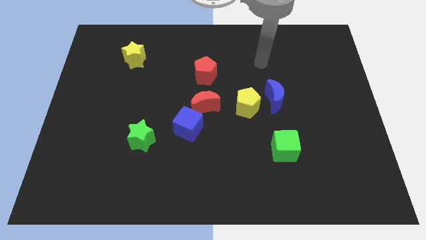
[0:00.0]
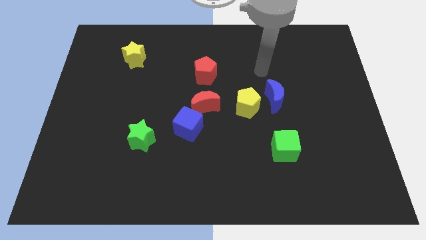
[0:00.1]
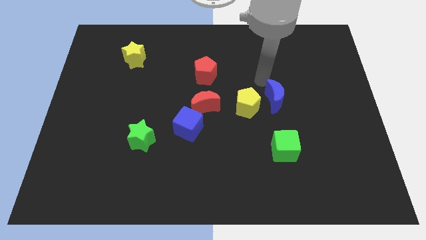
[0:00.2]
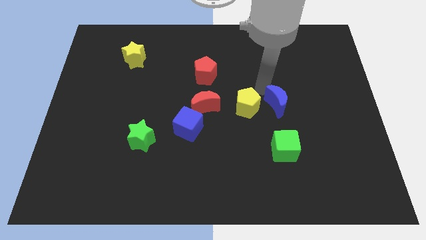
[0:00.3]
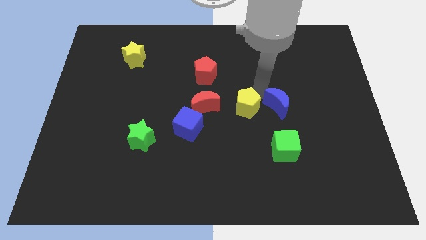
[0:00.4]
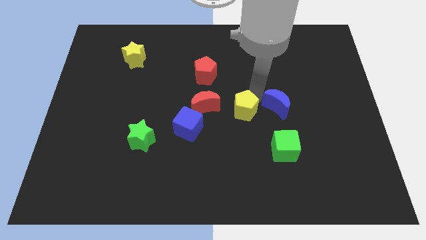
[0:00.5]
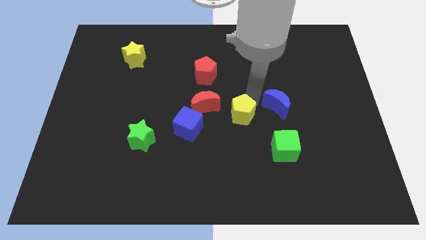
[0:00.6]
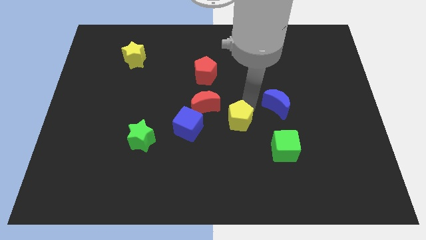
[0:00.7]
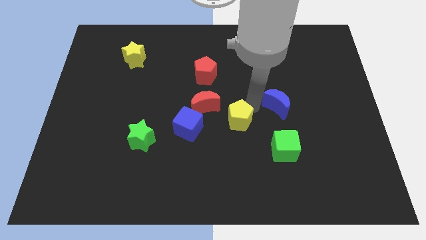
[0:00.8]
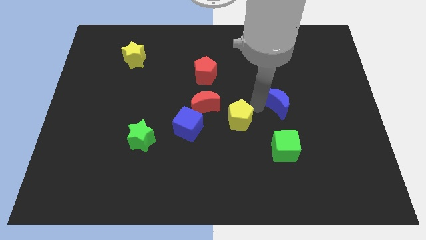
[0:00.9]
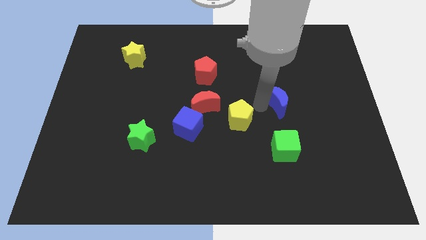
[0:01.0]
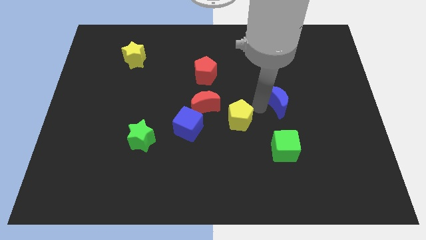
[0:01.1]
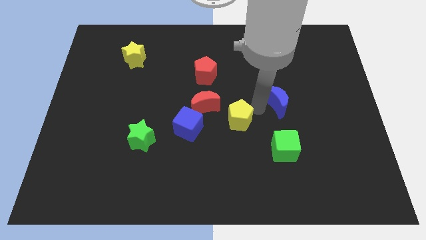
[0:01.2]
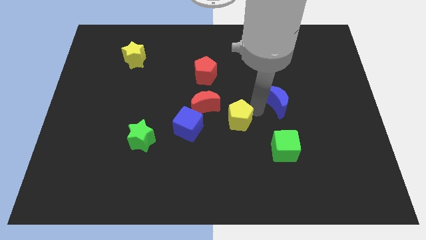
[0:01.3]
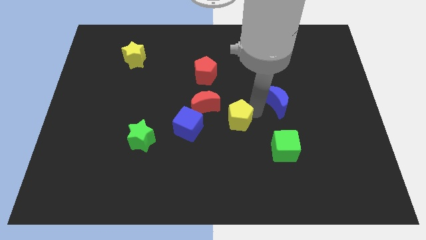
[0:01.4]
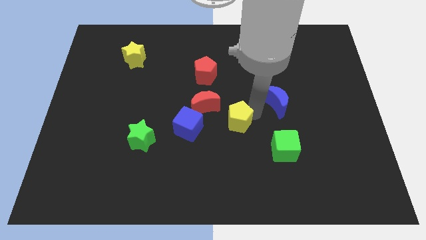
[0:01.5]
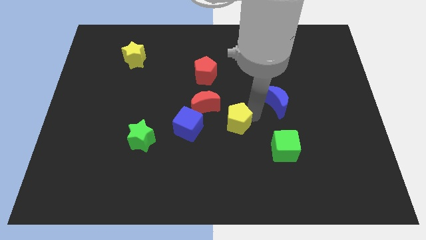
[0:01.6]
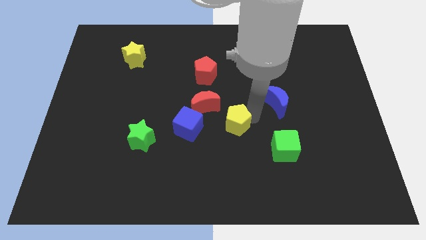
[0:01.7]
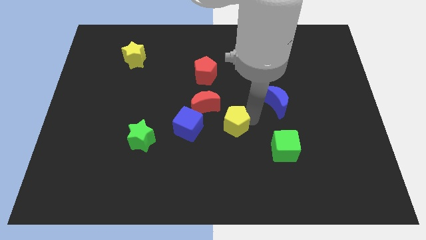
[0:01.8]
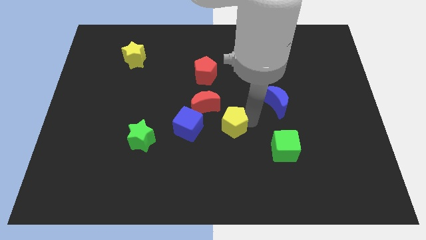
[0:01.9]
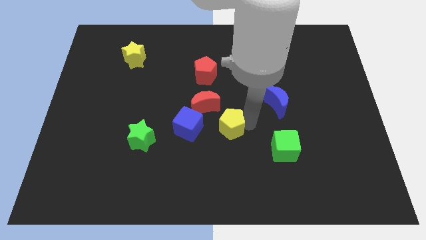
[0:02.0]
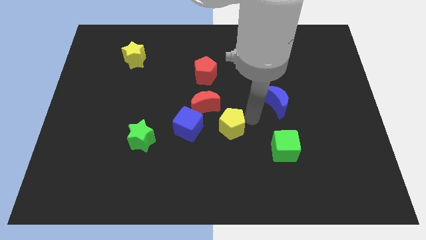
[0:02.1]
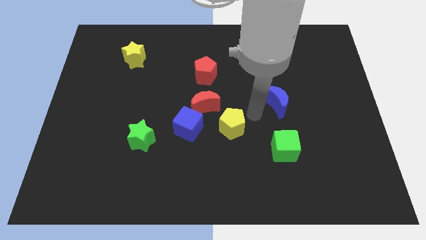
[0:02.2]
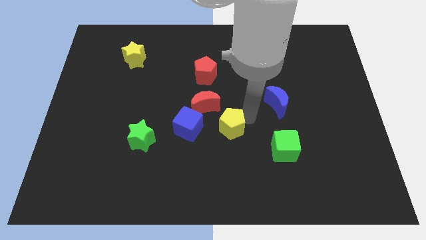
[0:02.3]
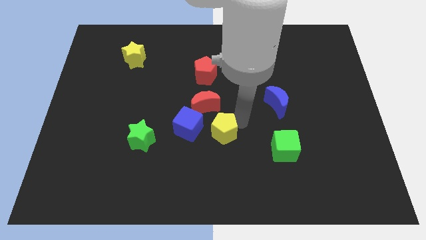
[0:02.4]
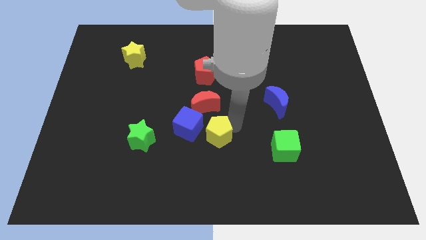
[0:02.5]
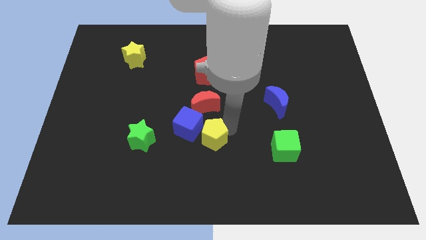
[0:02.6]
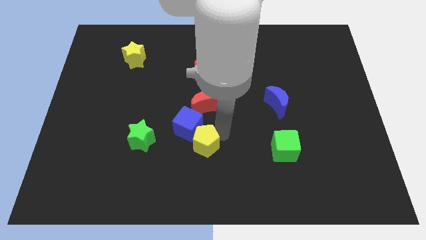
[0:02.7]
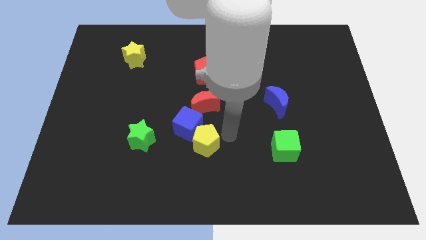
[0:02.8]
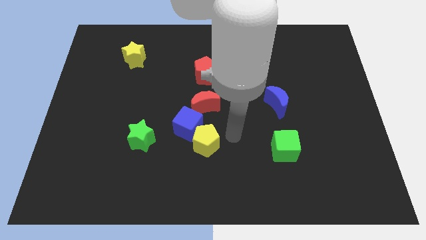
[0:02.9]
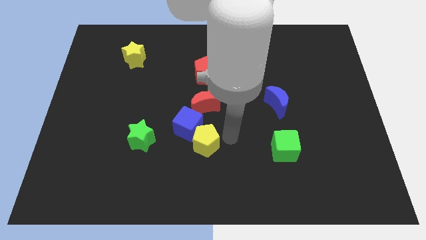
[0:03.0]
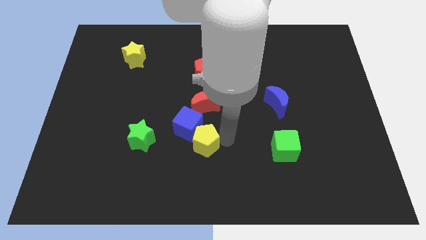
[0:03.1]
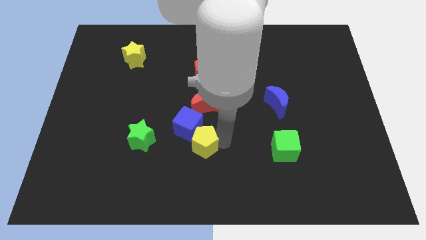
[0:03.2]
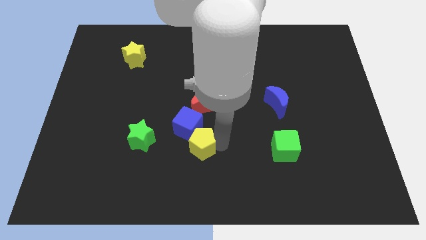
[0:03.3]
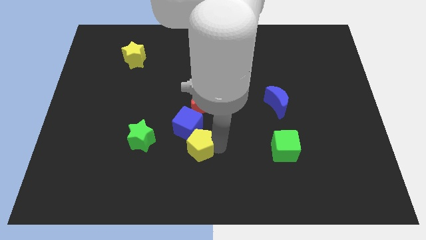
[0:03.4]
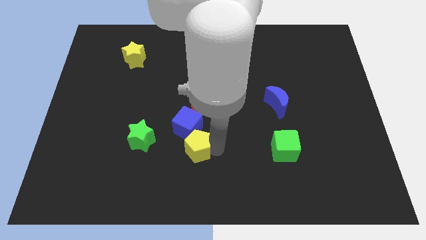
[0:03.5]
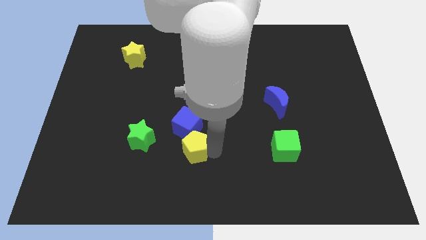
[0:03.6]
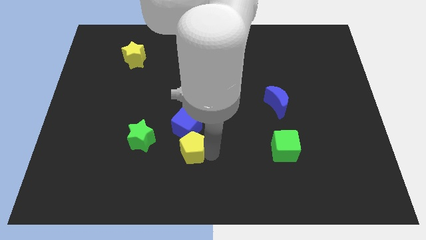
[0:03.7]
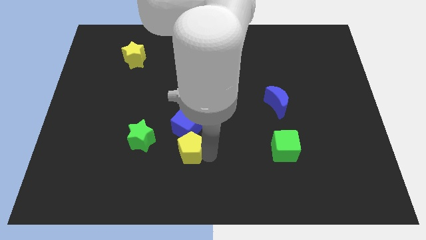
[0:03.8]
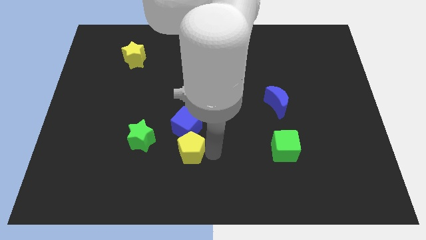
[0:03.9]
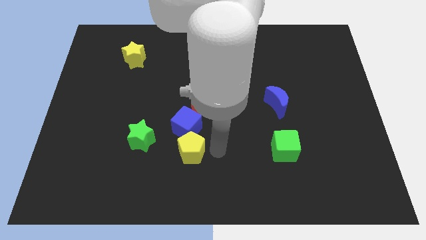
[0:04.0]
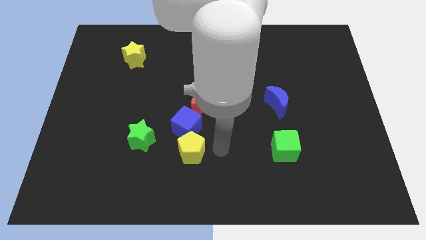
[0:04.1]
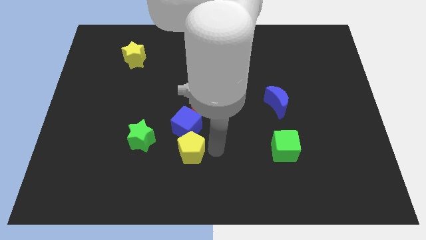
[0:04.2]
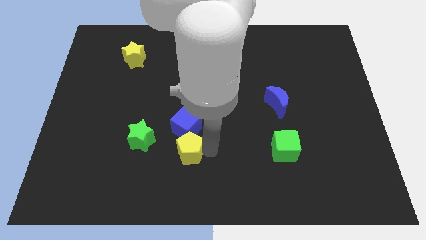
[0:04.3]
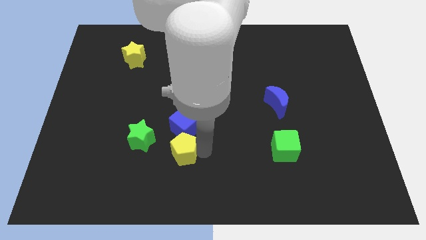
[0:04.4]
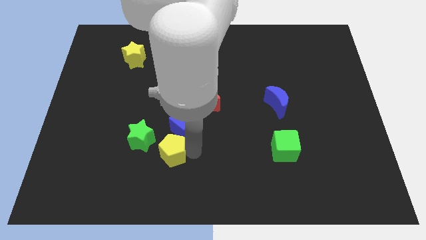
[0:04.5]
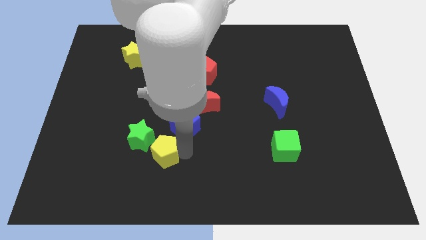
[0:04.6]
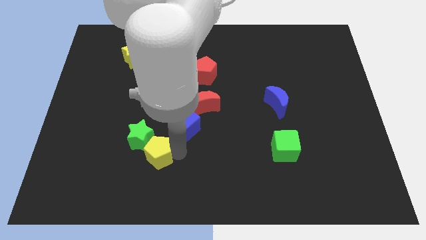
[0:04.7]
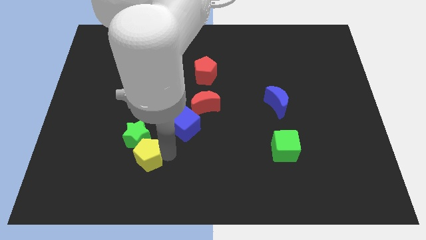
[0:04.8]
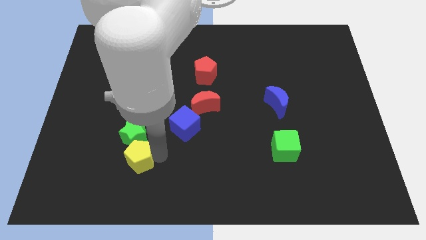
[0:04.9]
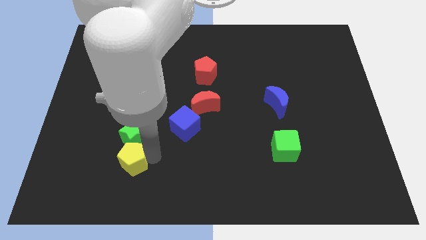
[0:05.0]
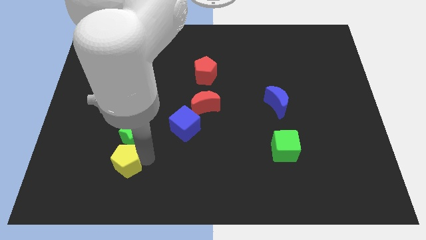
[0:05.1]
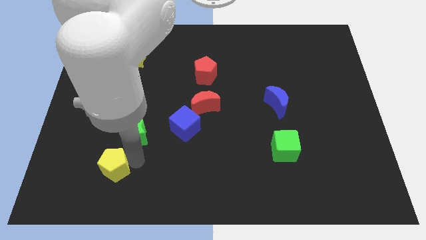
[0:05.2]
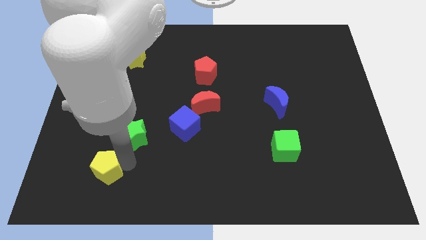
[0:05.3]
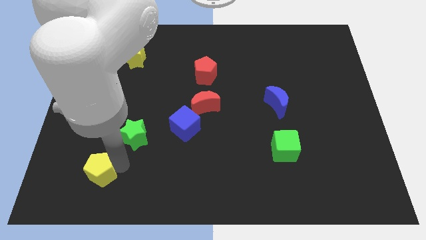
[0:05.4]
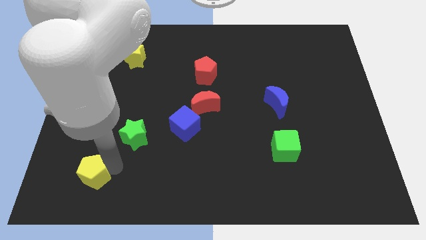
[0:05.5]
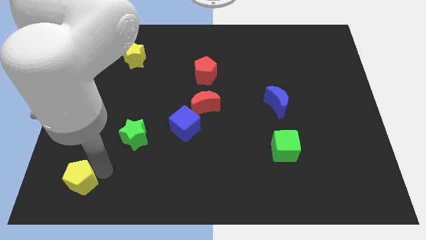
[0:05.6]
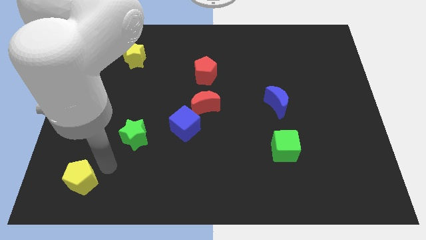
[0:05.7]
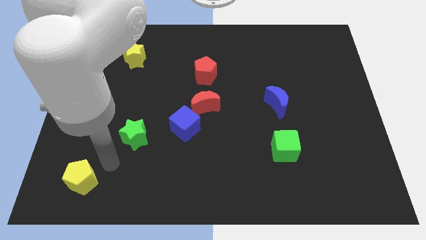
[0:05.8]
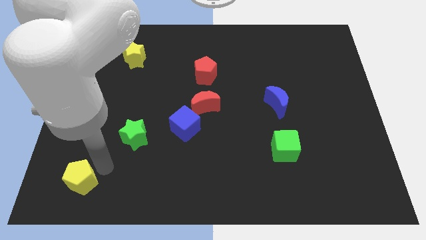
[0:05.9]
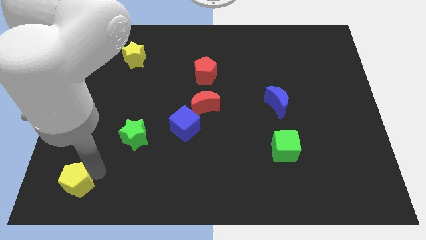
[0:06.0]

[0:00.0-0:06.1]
put the yellow pentagon to the bottom left corner
